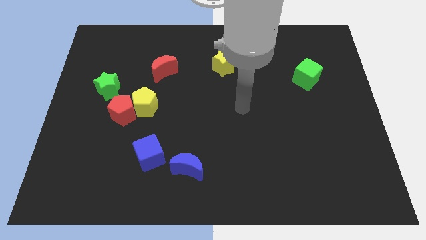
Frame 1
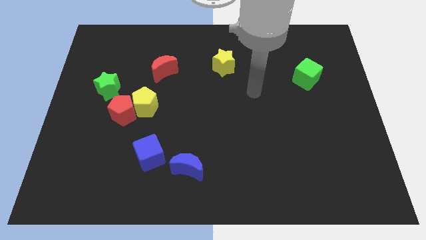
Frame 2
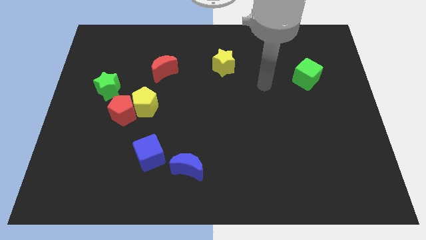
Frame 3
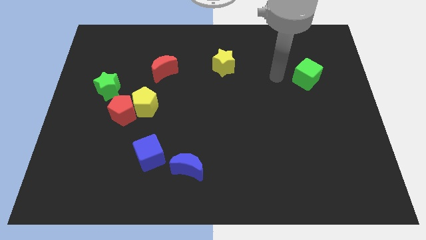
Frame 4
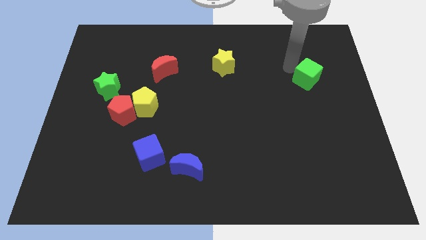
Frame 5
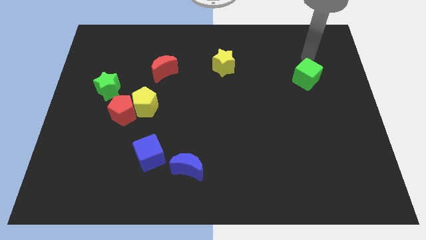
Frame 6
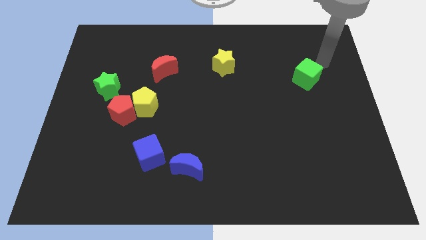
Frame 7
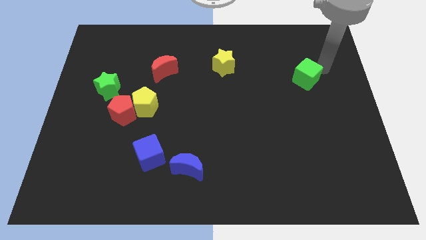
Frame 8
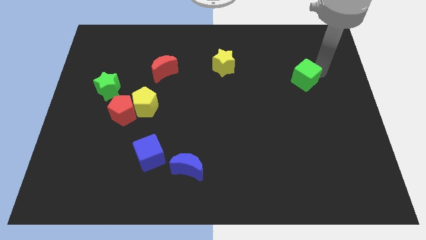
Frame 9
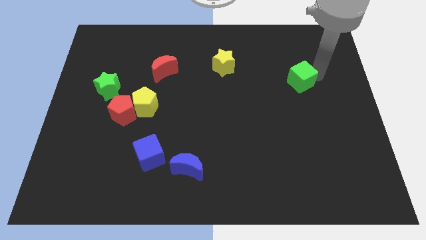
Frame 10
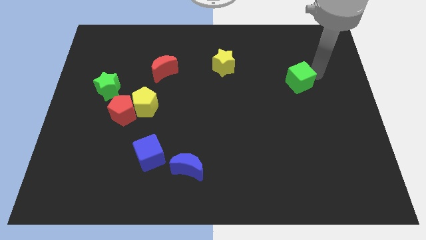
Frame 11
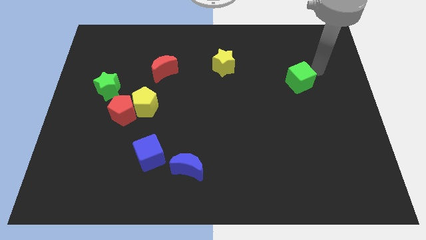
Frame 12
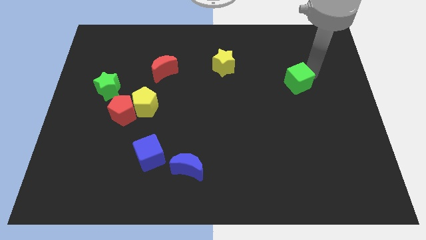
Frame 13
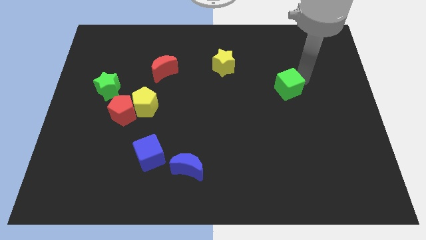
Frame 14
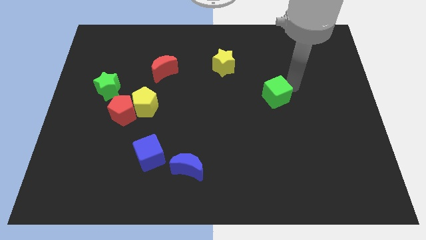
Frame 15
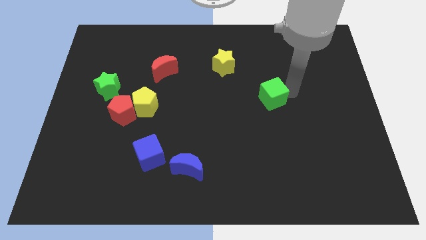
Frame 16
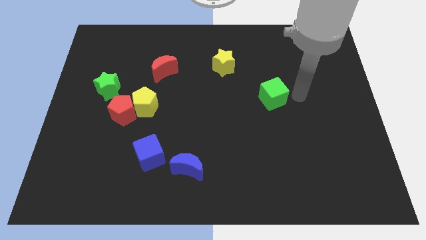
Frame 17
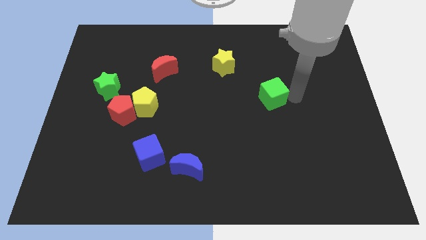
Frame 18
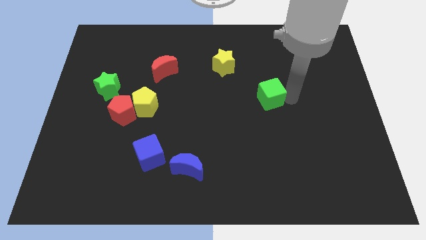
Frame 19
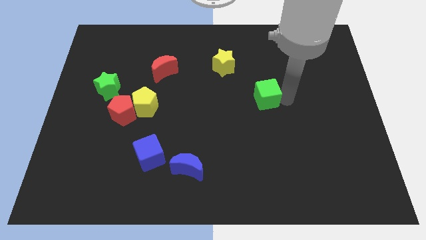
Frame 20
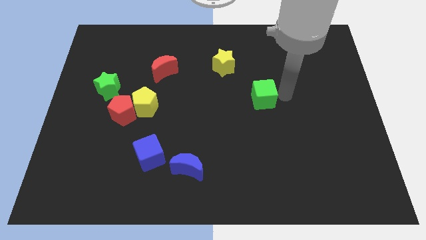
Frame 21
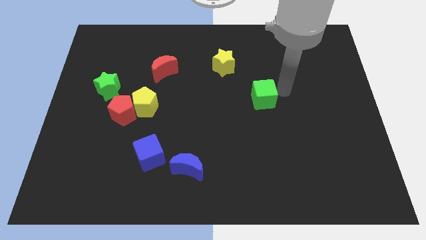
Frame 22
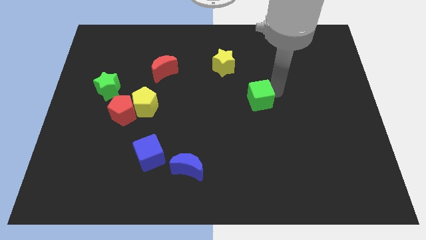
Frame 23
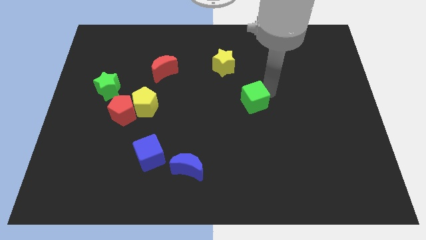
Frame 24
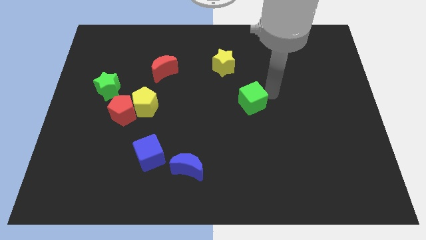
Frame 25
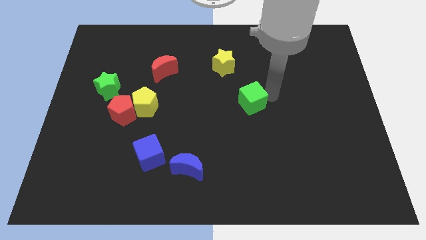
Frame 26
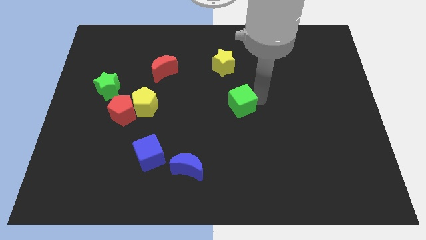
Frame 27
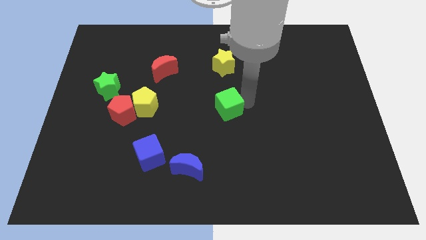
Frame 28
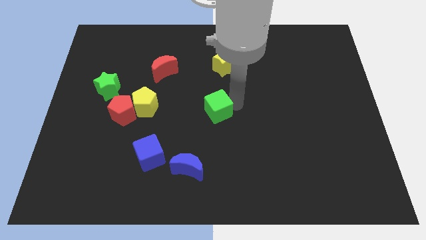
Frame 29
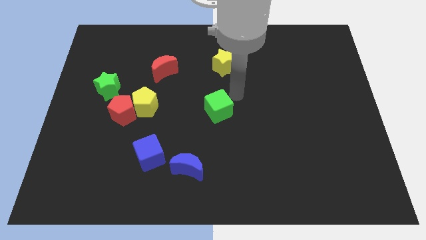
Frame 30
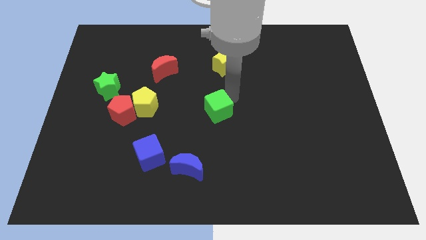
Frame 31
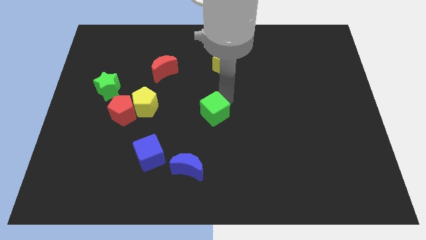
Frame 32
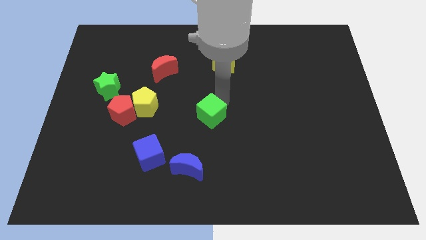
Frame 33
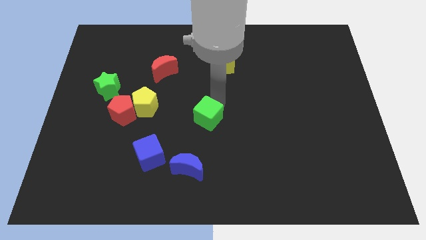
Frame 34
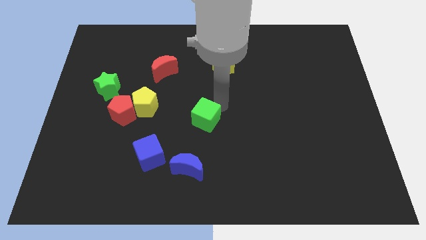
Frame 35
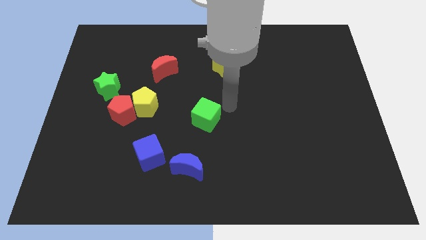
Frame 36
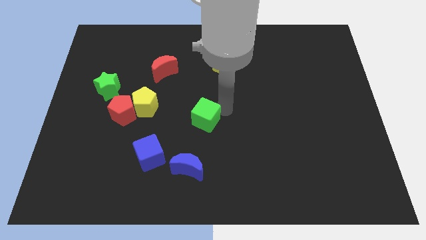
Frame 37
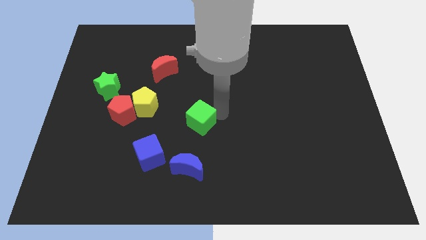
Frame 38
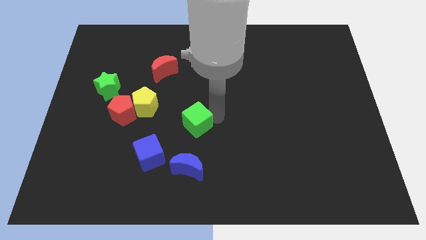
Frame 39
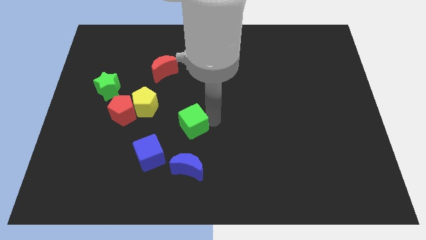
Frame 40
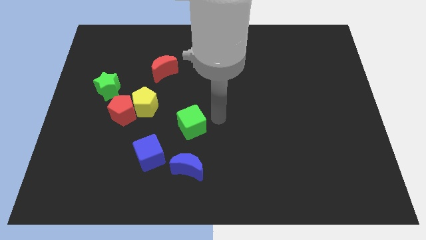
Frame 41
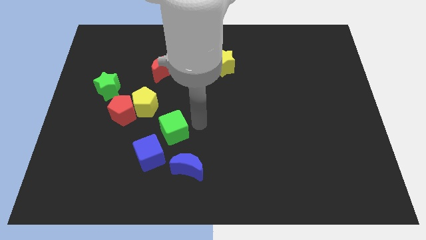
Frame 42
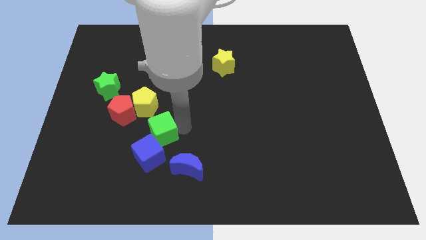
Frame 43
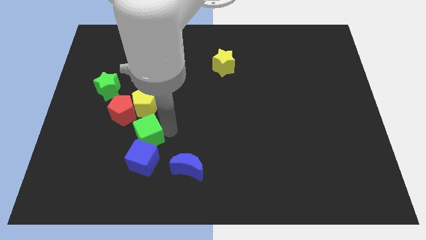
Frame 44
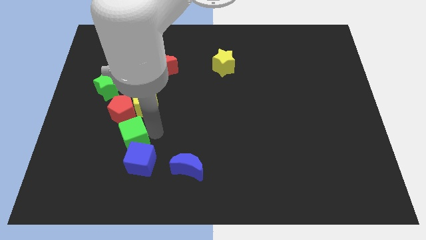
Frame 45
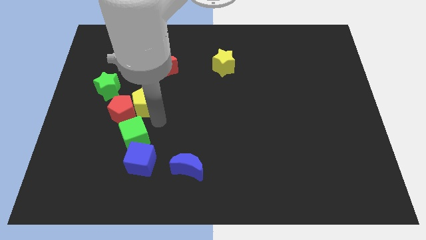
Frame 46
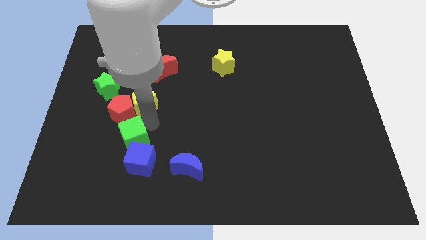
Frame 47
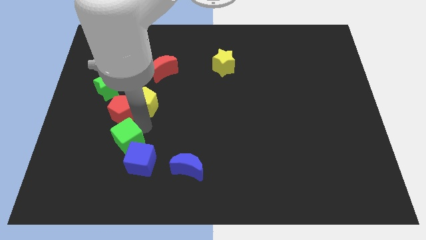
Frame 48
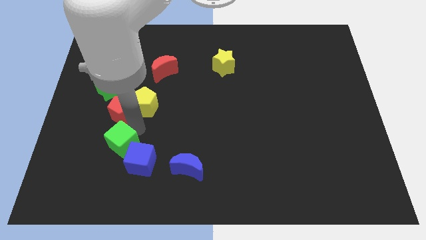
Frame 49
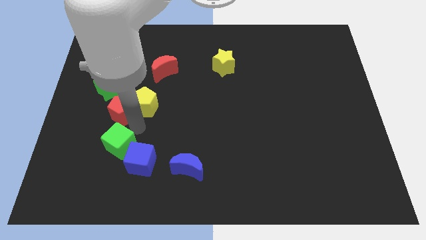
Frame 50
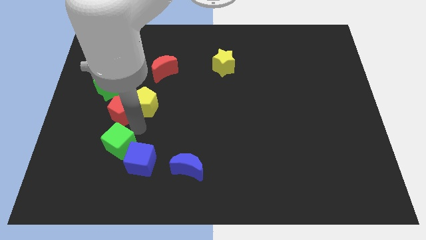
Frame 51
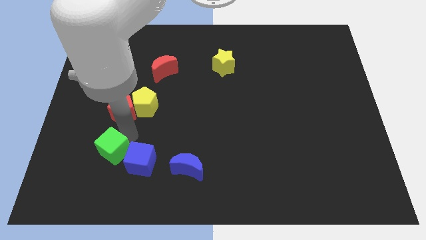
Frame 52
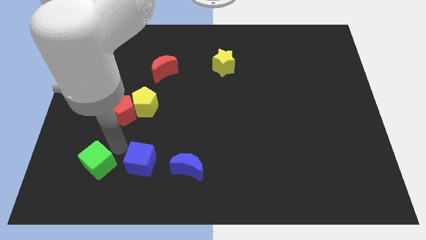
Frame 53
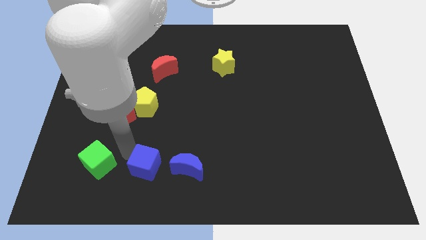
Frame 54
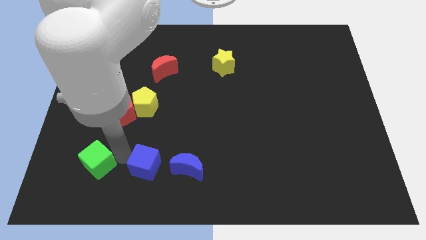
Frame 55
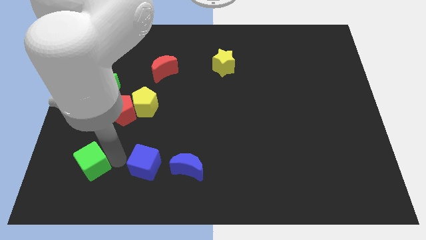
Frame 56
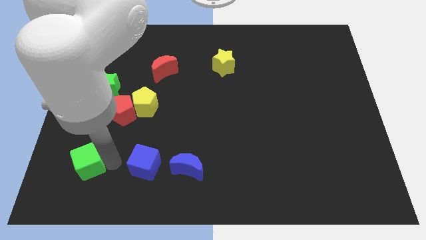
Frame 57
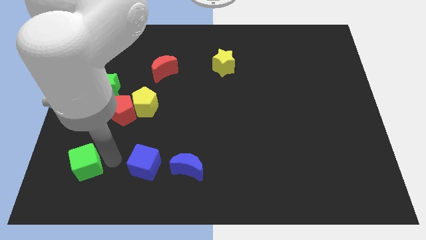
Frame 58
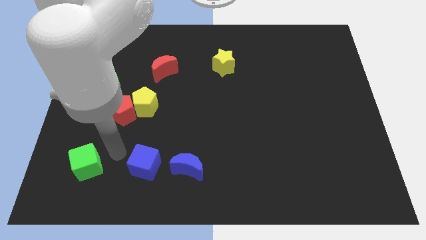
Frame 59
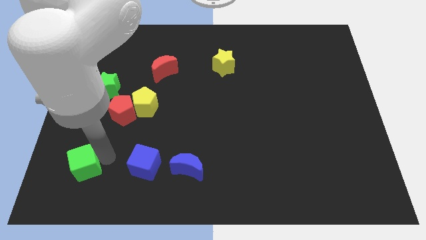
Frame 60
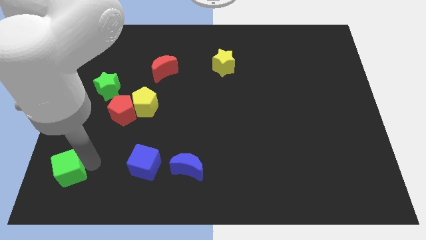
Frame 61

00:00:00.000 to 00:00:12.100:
slide the green cube to the bottom left of the board
